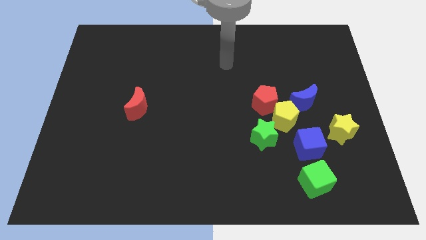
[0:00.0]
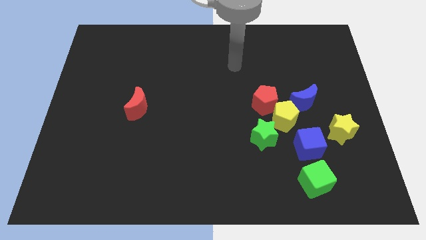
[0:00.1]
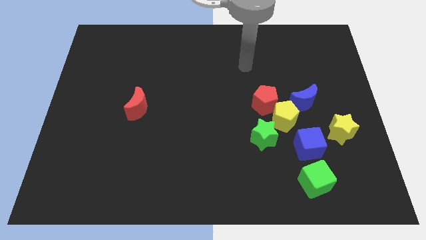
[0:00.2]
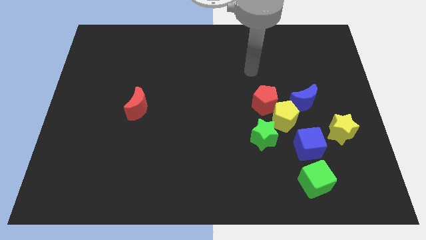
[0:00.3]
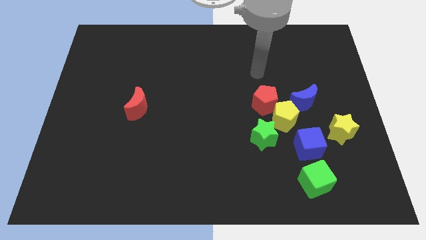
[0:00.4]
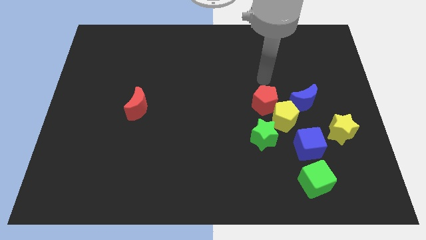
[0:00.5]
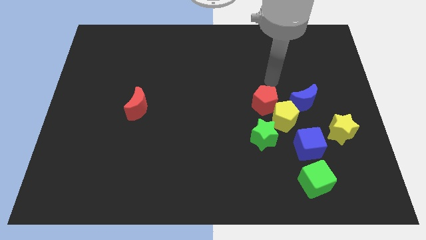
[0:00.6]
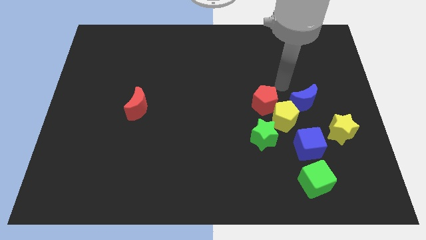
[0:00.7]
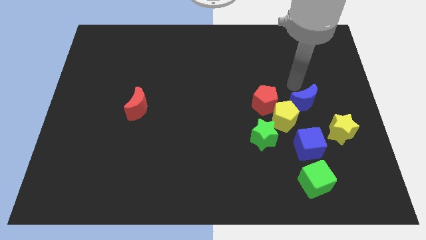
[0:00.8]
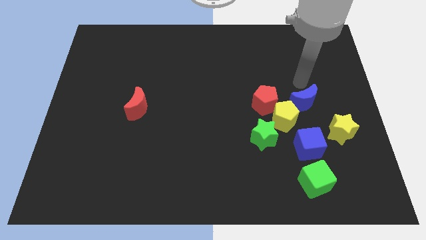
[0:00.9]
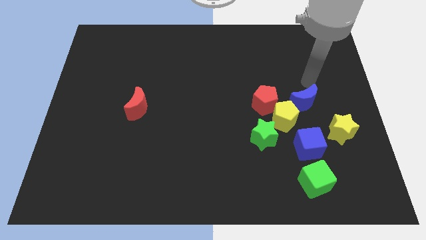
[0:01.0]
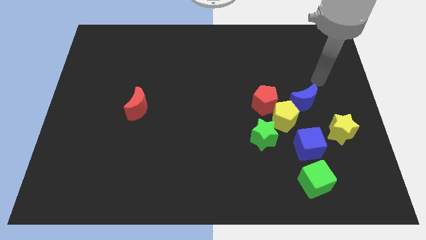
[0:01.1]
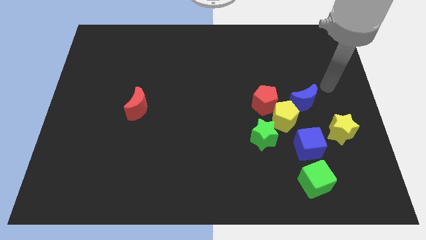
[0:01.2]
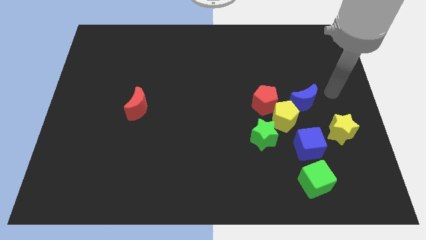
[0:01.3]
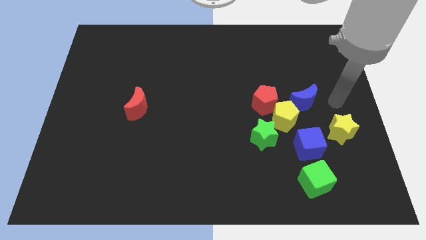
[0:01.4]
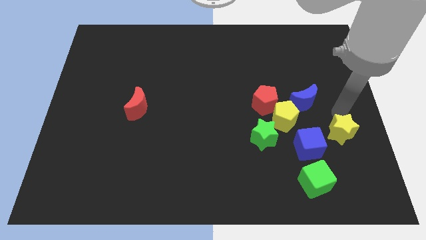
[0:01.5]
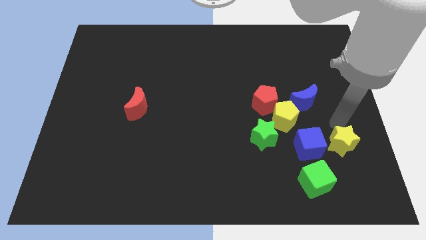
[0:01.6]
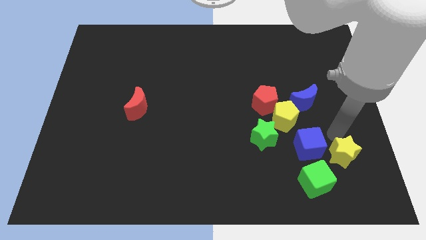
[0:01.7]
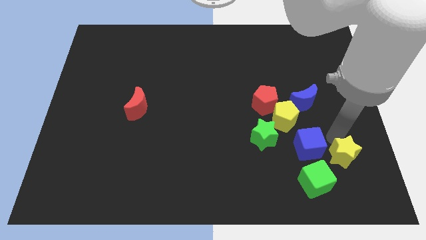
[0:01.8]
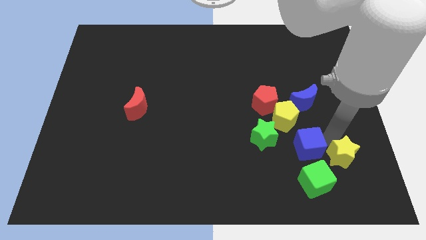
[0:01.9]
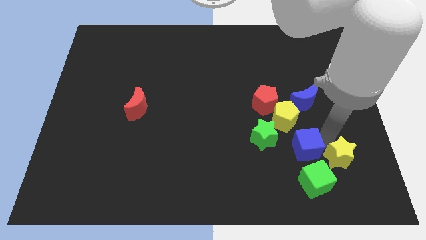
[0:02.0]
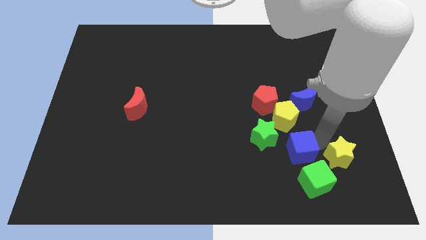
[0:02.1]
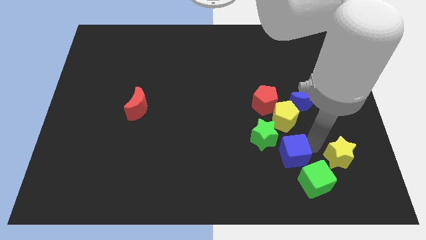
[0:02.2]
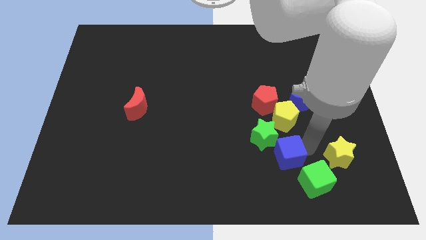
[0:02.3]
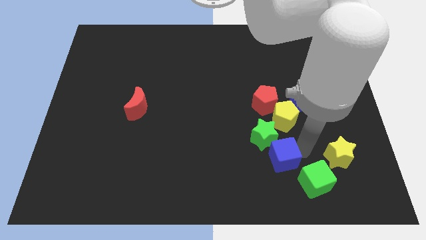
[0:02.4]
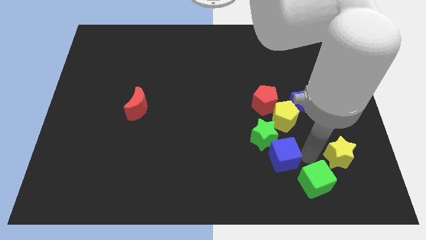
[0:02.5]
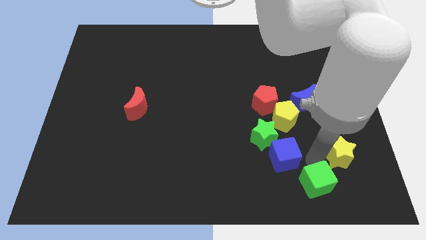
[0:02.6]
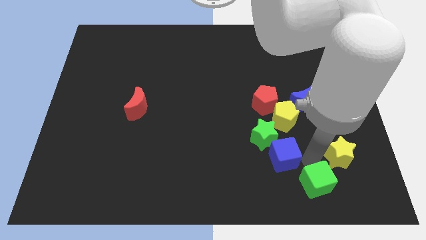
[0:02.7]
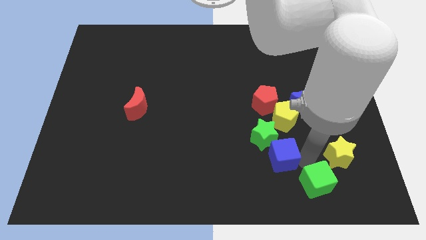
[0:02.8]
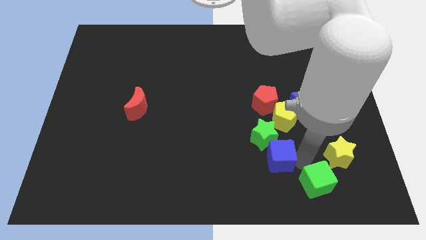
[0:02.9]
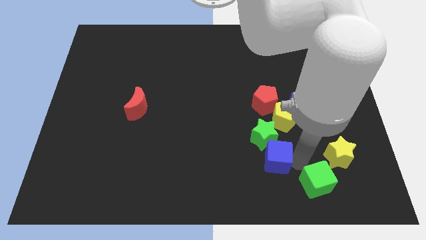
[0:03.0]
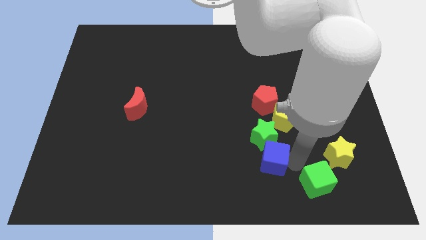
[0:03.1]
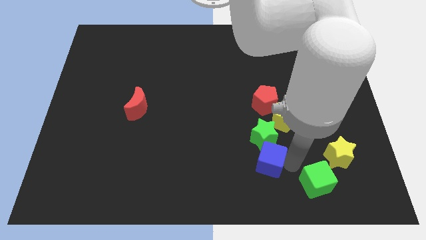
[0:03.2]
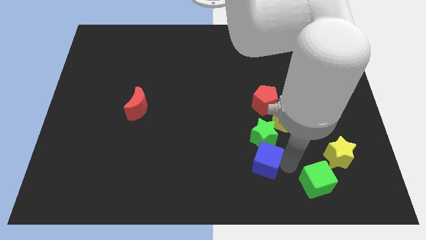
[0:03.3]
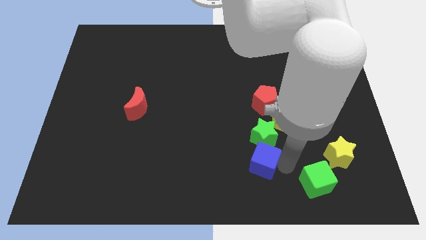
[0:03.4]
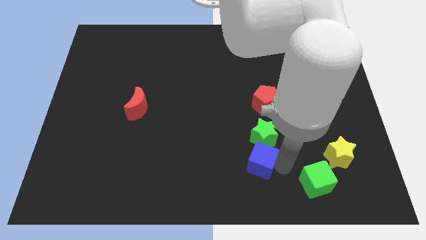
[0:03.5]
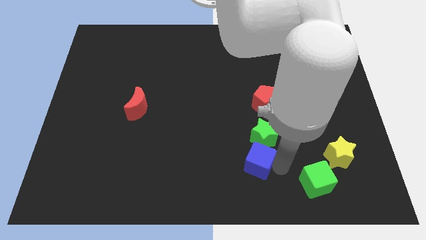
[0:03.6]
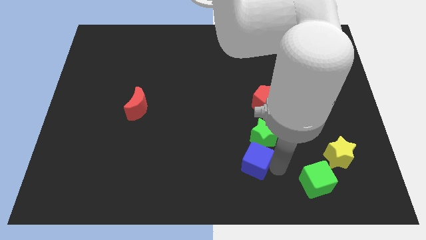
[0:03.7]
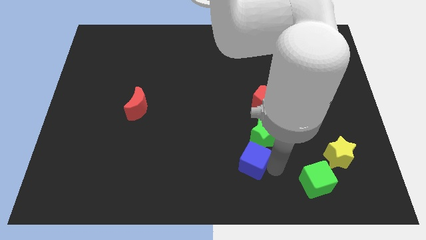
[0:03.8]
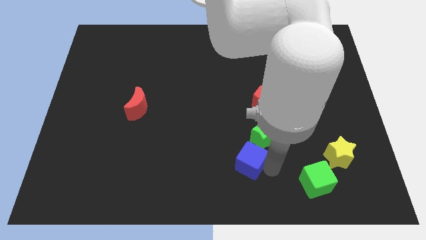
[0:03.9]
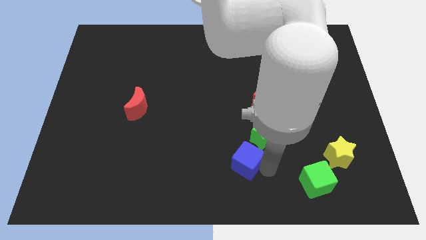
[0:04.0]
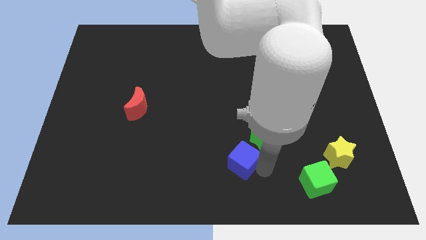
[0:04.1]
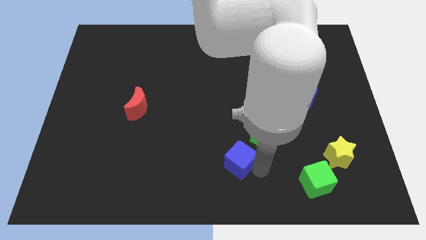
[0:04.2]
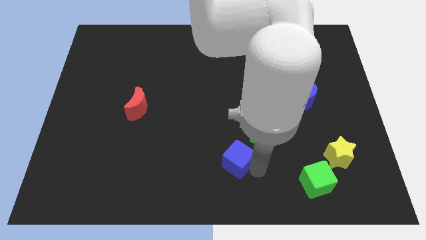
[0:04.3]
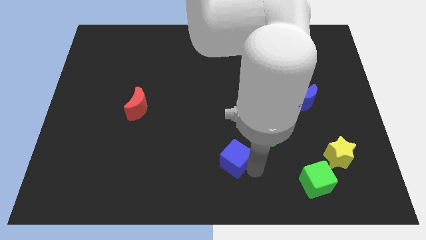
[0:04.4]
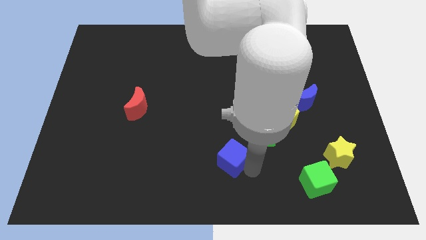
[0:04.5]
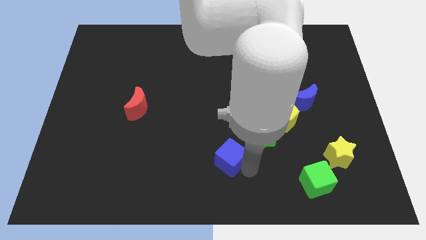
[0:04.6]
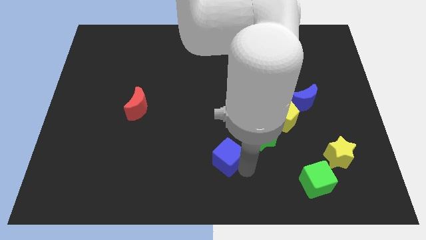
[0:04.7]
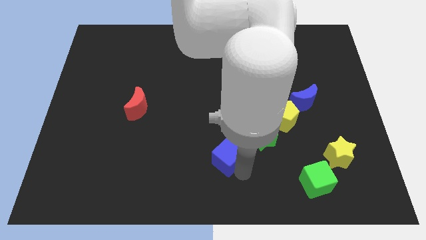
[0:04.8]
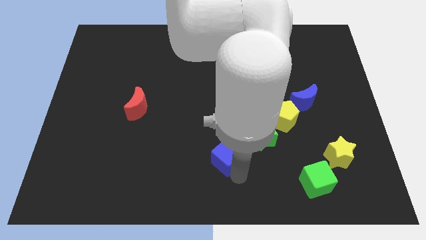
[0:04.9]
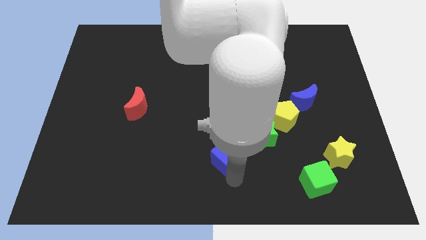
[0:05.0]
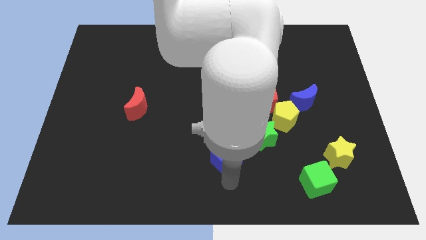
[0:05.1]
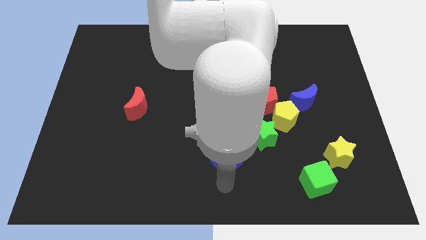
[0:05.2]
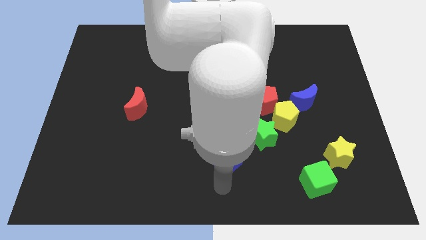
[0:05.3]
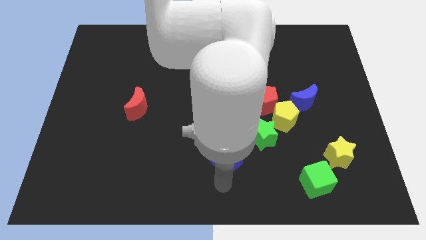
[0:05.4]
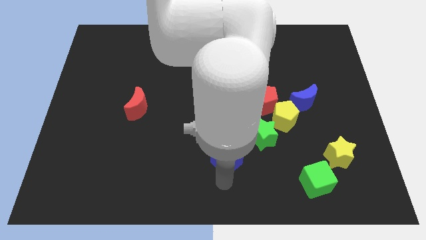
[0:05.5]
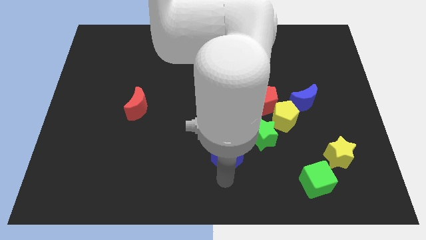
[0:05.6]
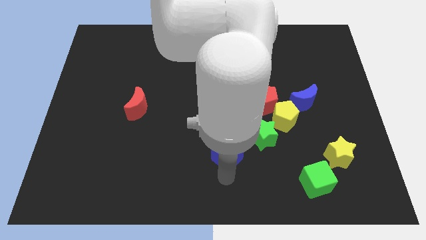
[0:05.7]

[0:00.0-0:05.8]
push the blue cube left of the green star

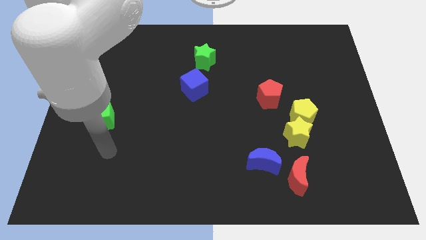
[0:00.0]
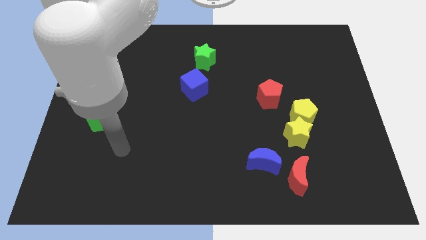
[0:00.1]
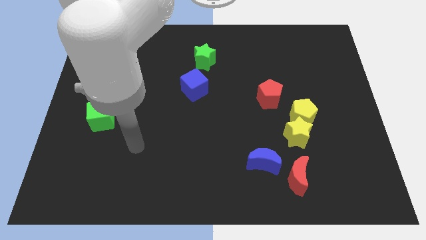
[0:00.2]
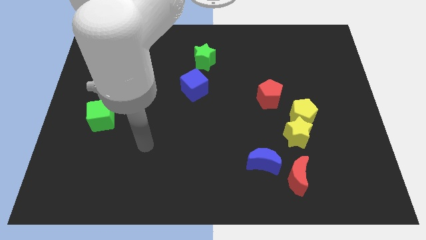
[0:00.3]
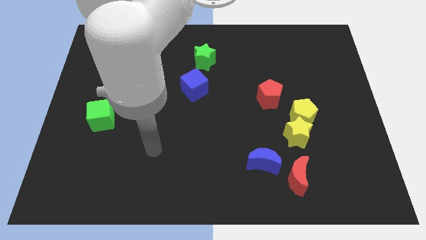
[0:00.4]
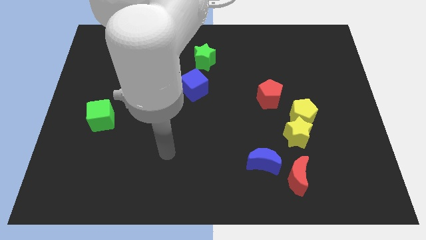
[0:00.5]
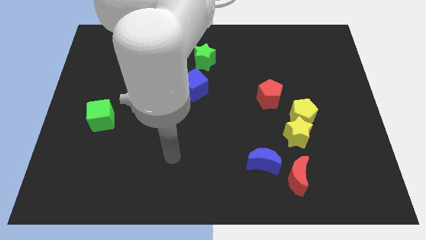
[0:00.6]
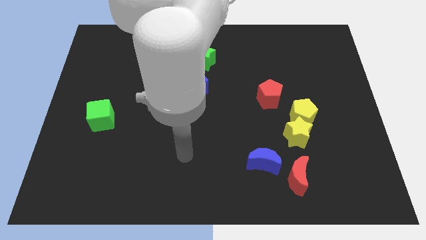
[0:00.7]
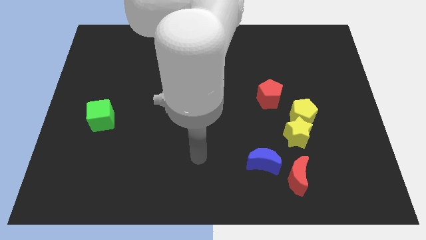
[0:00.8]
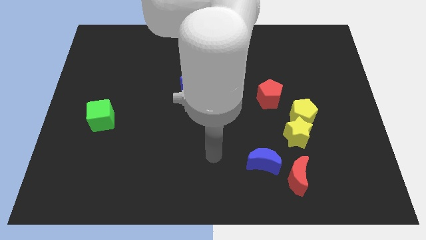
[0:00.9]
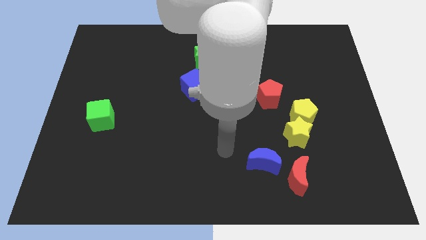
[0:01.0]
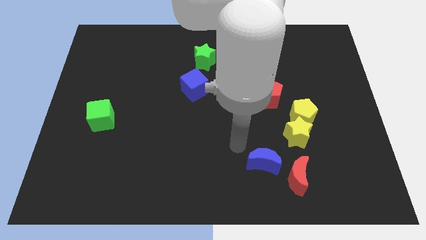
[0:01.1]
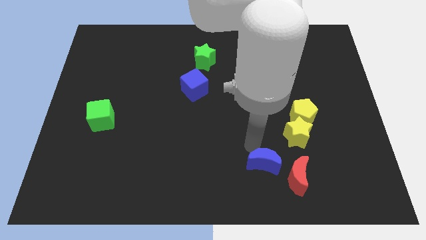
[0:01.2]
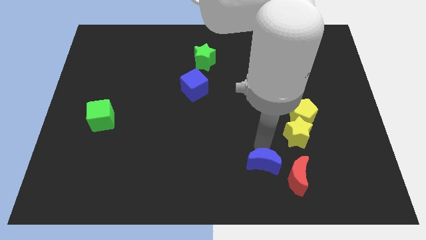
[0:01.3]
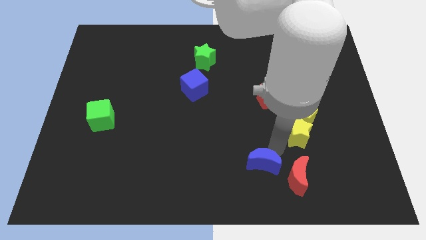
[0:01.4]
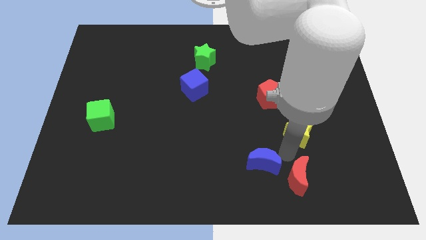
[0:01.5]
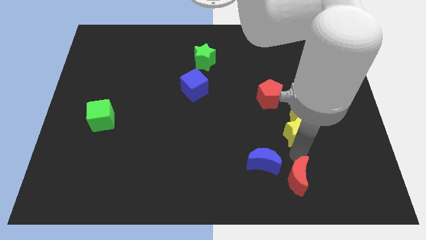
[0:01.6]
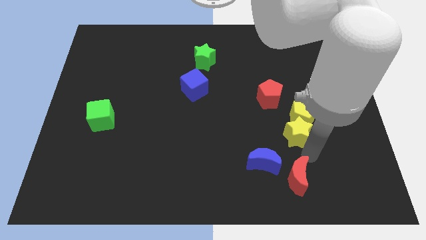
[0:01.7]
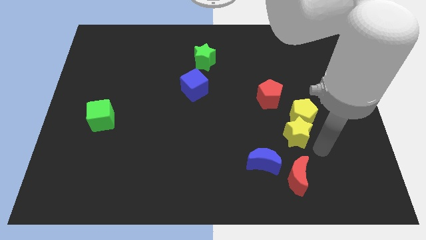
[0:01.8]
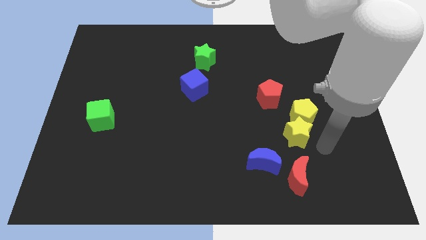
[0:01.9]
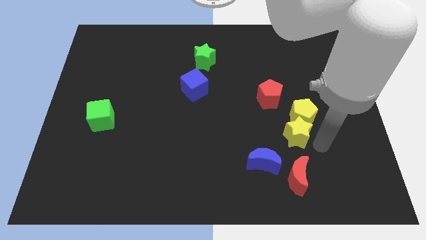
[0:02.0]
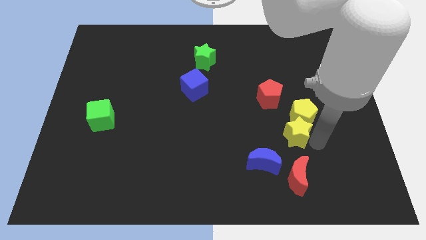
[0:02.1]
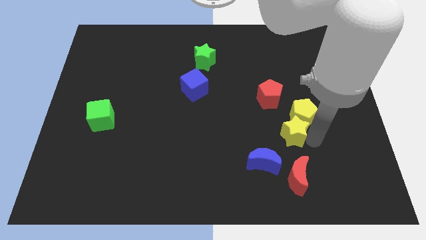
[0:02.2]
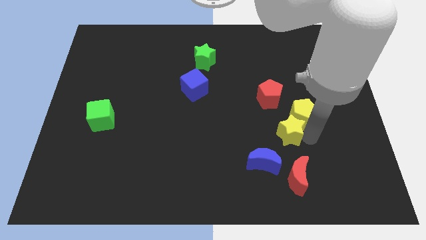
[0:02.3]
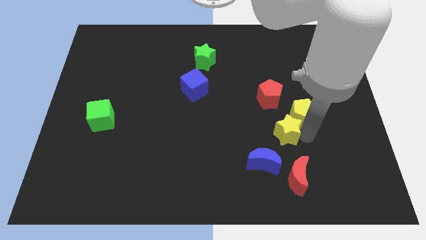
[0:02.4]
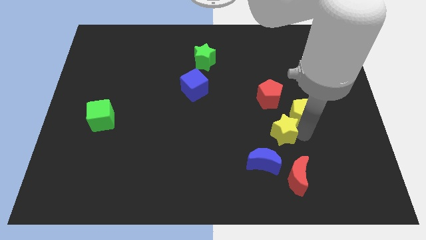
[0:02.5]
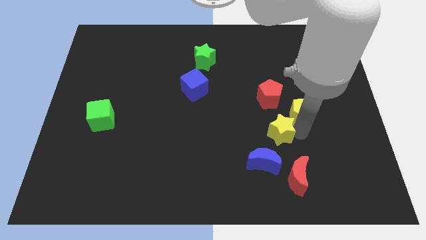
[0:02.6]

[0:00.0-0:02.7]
push the yellow star to the top of the blue moon
